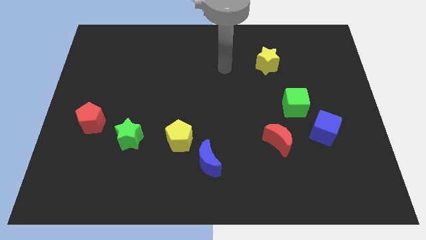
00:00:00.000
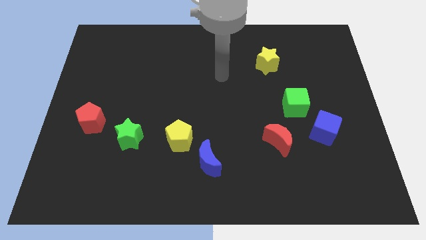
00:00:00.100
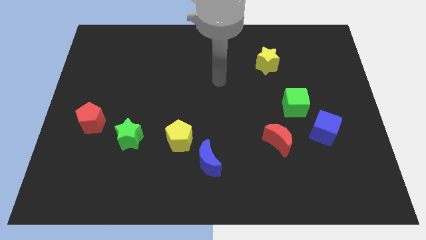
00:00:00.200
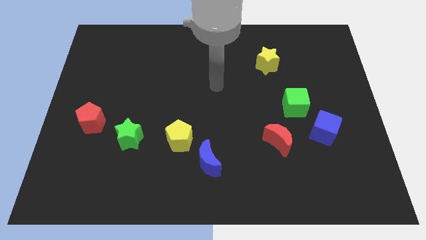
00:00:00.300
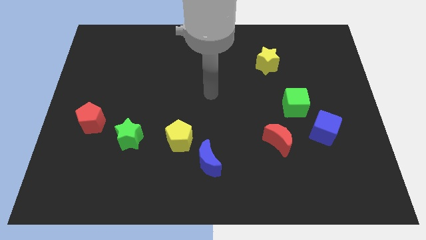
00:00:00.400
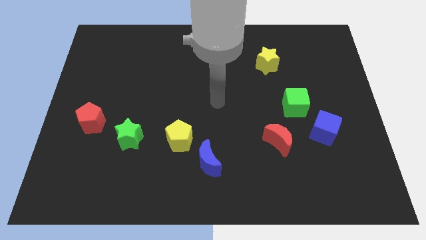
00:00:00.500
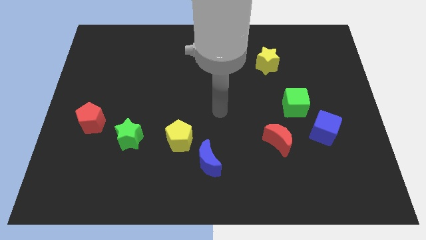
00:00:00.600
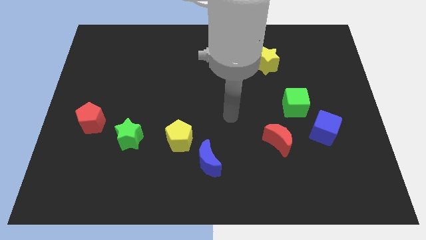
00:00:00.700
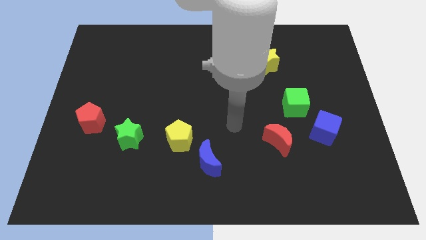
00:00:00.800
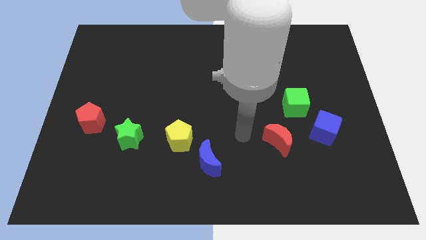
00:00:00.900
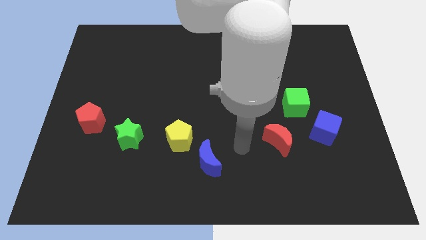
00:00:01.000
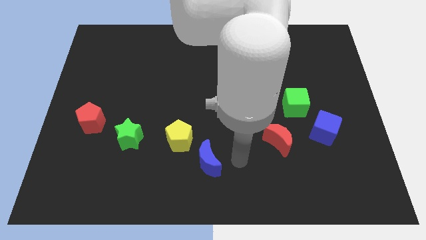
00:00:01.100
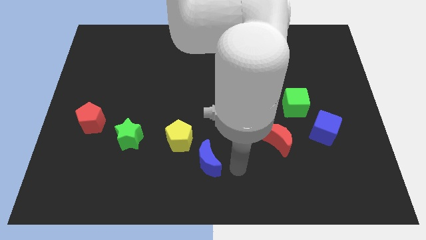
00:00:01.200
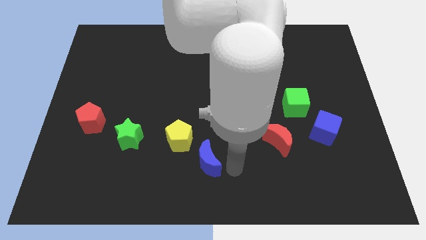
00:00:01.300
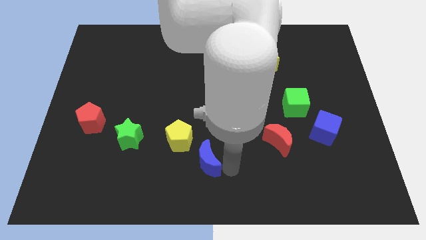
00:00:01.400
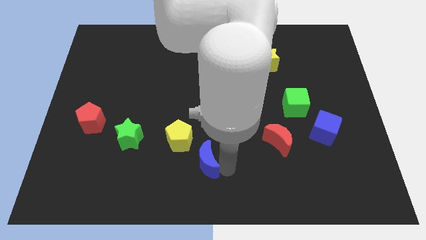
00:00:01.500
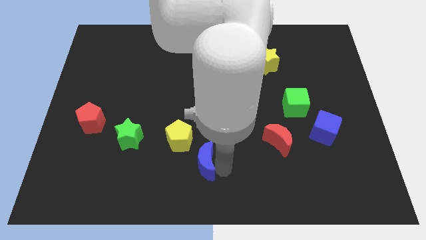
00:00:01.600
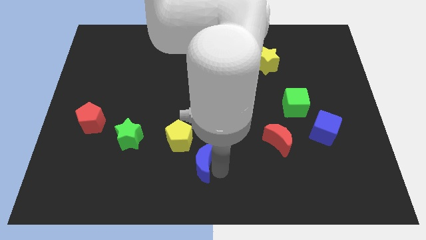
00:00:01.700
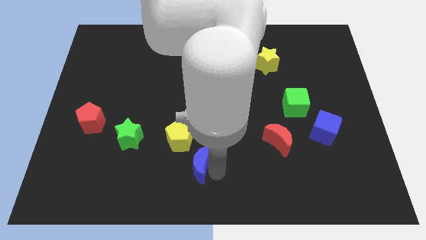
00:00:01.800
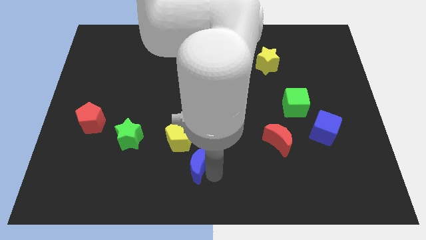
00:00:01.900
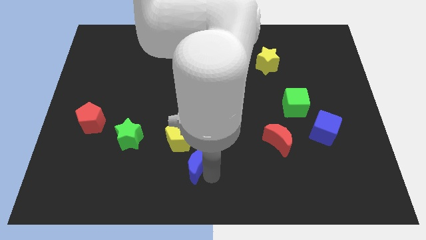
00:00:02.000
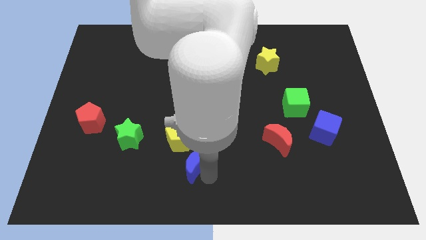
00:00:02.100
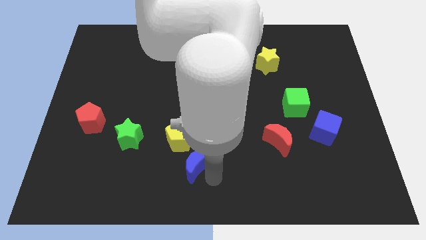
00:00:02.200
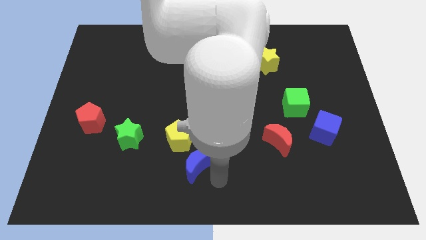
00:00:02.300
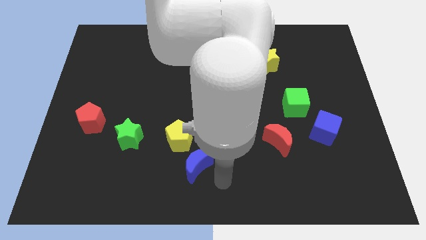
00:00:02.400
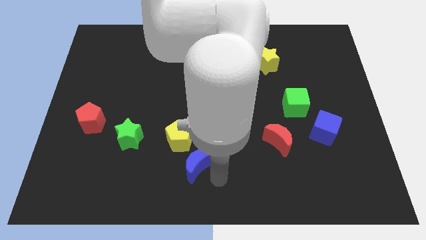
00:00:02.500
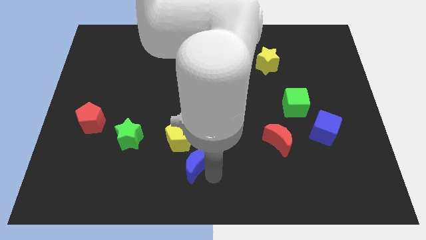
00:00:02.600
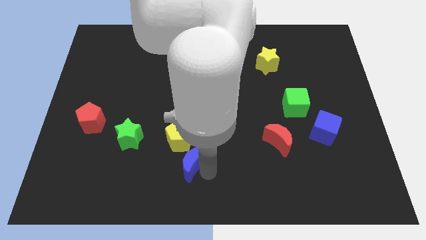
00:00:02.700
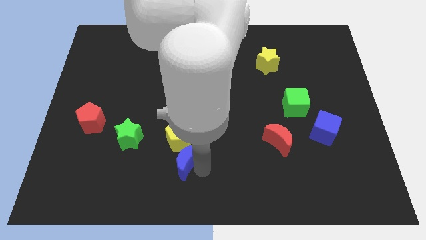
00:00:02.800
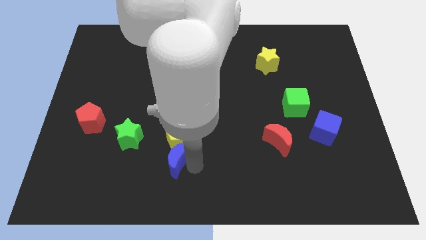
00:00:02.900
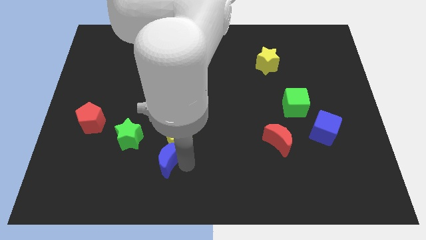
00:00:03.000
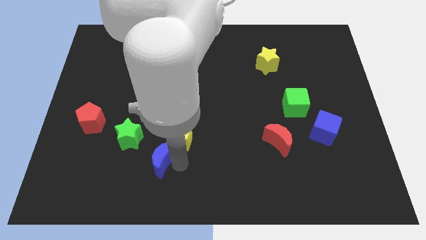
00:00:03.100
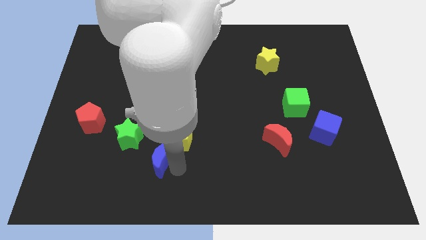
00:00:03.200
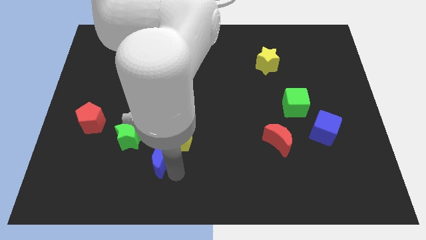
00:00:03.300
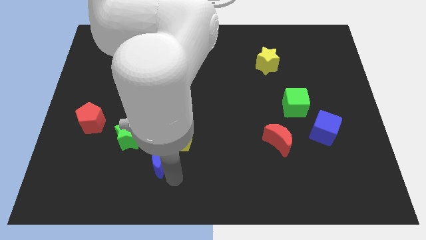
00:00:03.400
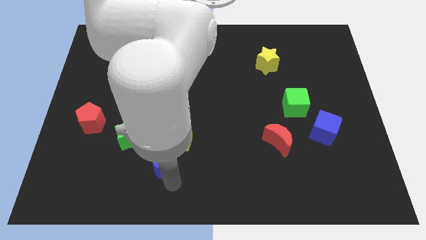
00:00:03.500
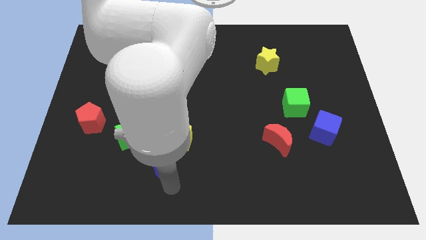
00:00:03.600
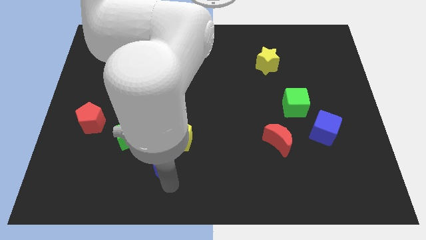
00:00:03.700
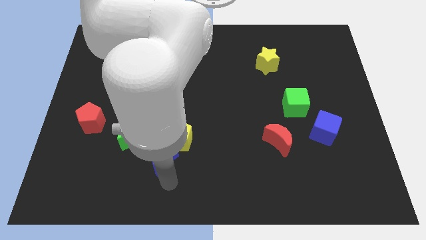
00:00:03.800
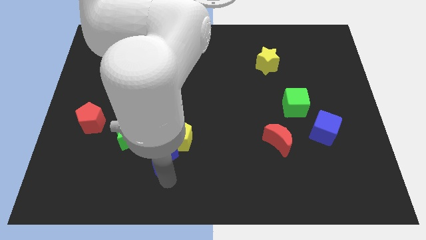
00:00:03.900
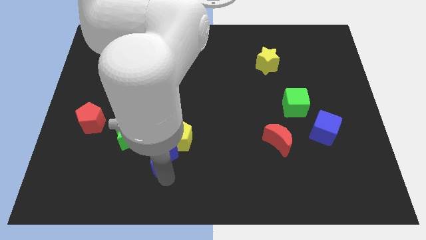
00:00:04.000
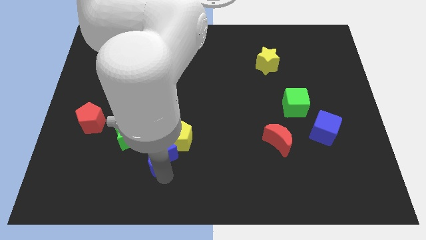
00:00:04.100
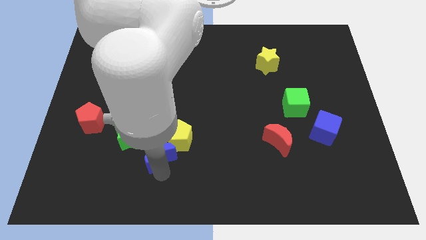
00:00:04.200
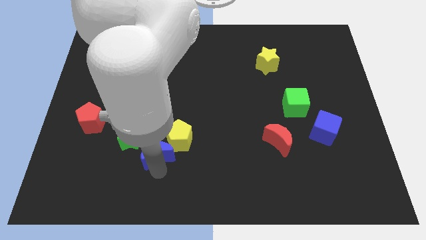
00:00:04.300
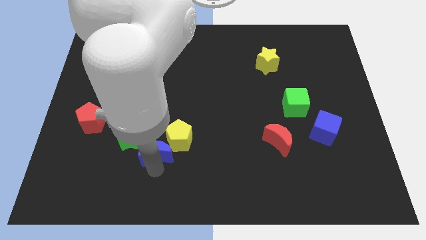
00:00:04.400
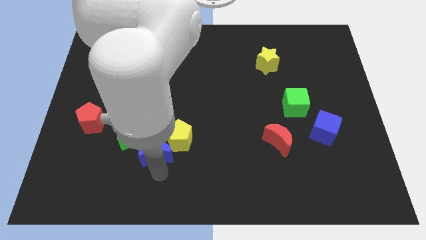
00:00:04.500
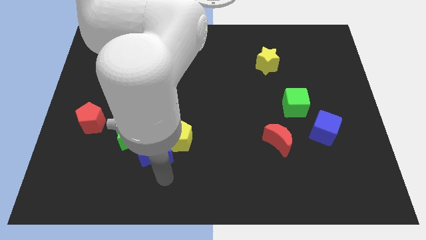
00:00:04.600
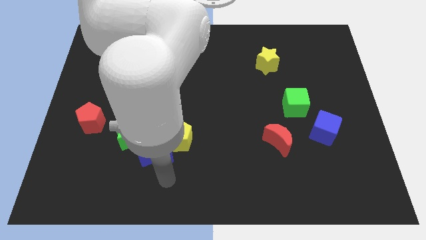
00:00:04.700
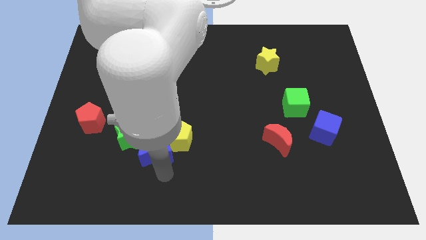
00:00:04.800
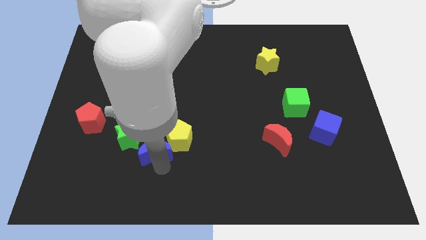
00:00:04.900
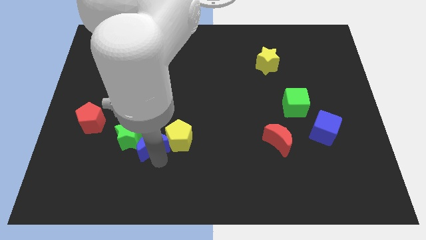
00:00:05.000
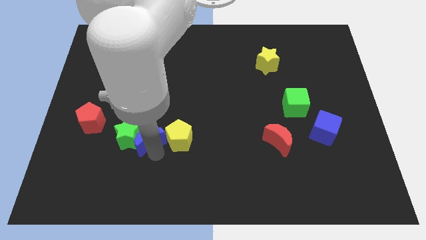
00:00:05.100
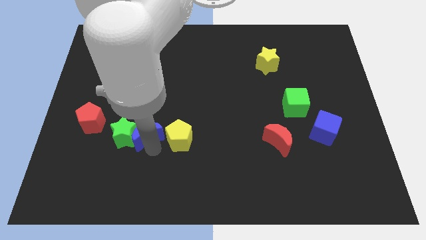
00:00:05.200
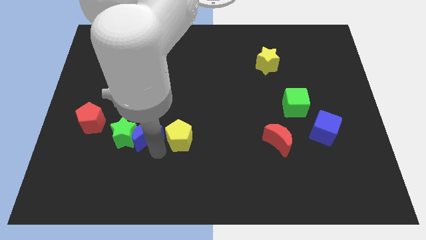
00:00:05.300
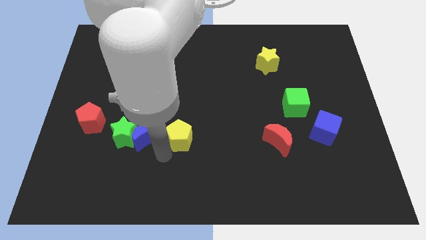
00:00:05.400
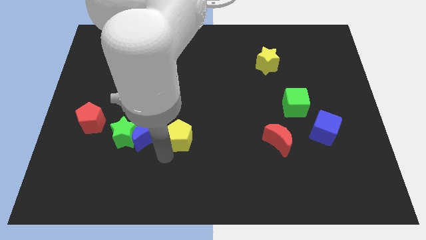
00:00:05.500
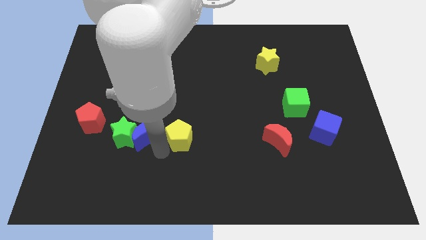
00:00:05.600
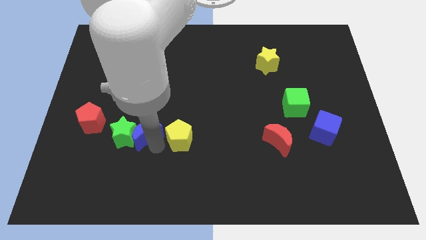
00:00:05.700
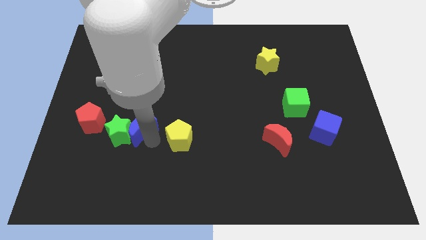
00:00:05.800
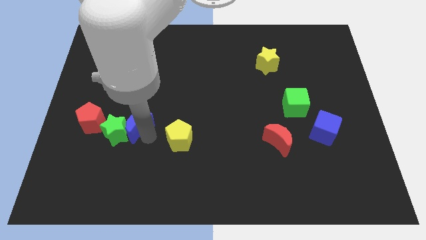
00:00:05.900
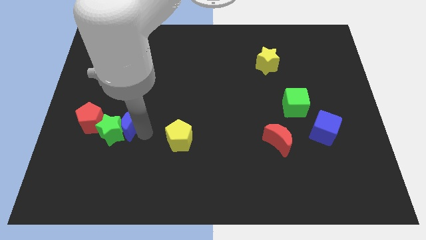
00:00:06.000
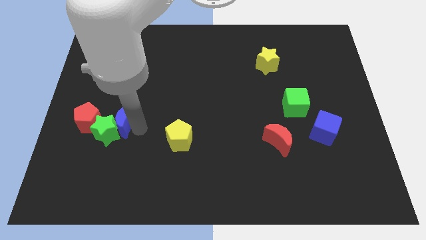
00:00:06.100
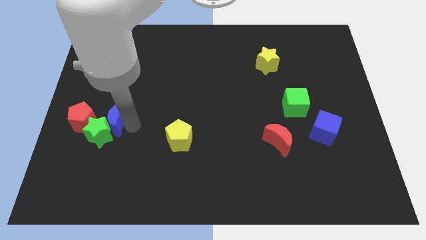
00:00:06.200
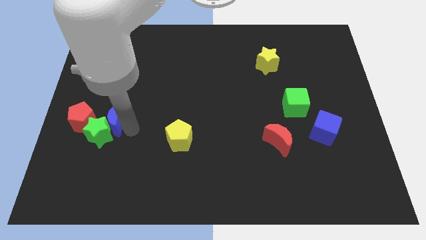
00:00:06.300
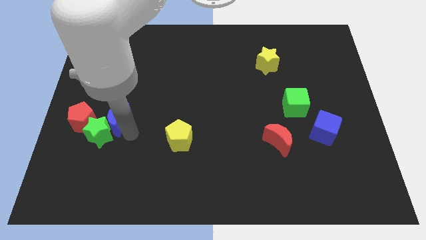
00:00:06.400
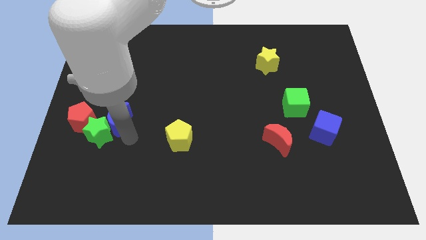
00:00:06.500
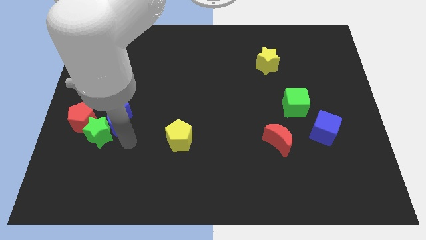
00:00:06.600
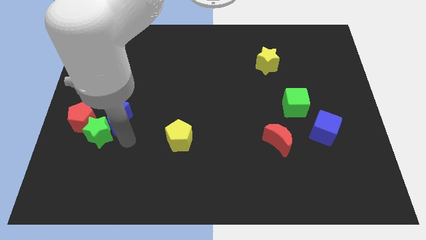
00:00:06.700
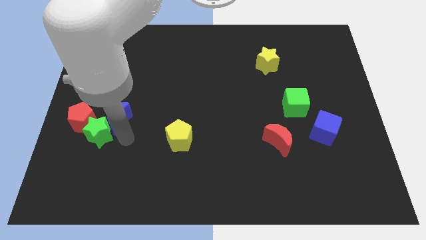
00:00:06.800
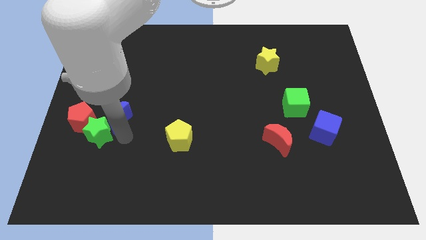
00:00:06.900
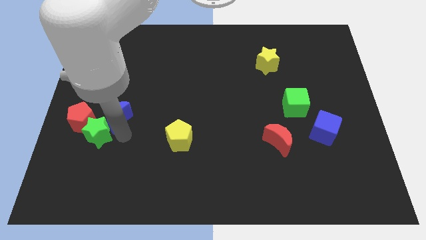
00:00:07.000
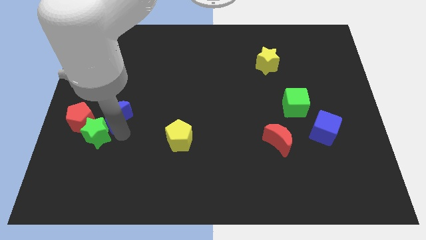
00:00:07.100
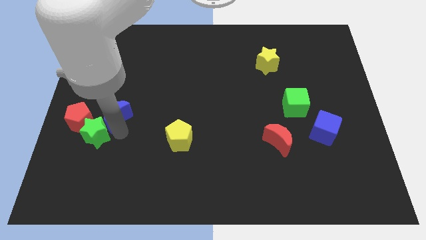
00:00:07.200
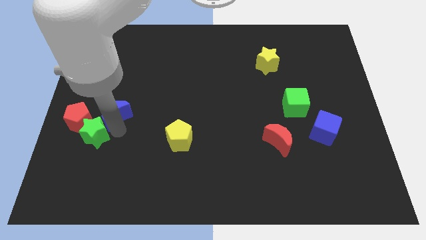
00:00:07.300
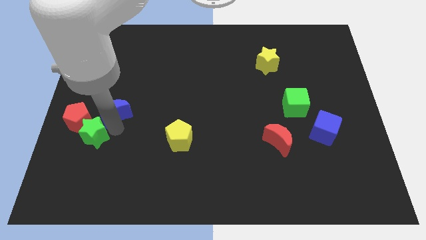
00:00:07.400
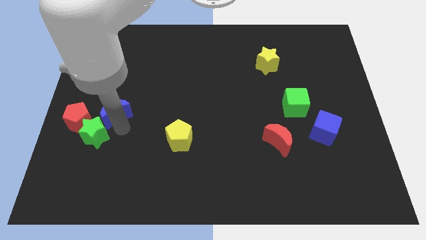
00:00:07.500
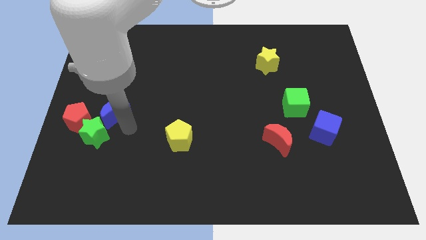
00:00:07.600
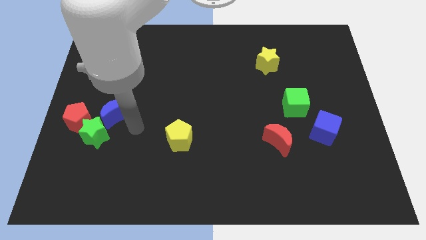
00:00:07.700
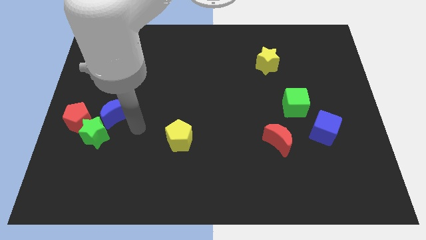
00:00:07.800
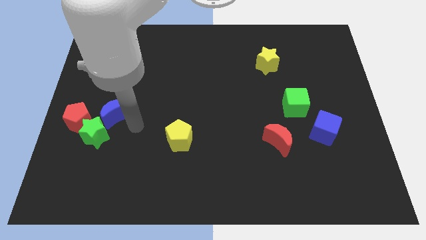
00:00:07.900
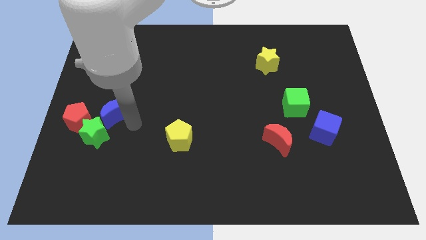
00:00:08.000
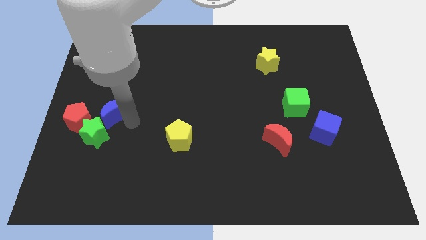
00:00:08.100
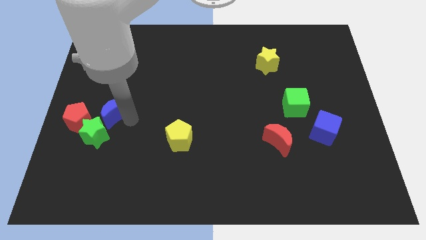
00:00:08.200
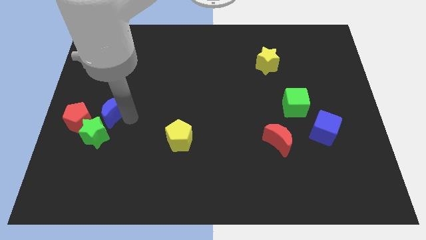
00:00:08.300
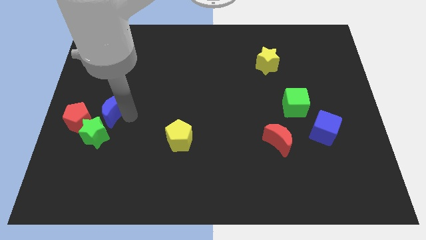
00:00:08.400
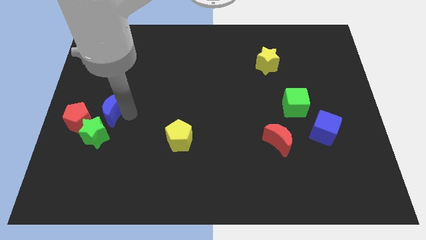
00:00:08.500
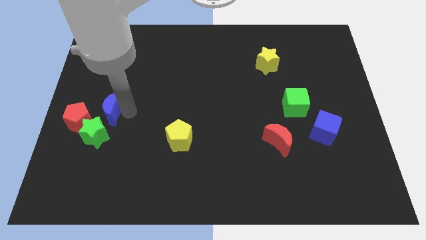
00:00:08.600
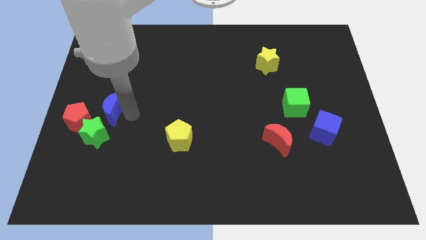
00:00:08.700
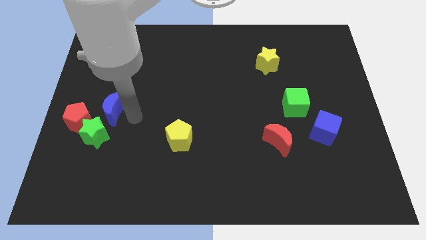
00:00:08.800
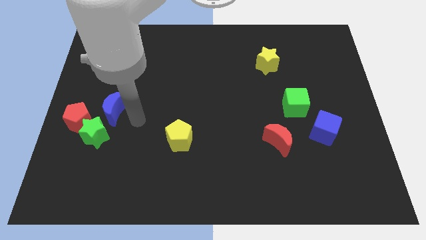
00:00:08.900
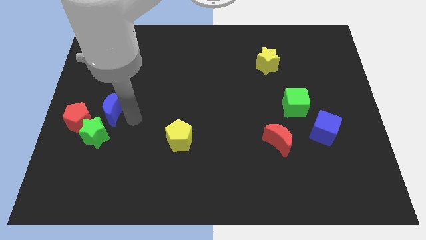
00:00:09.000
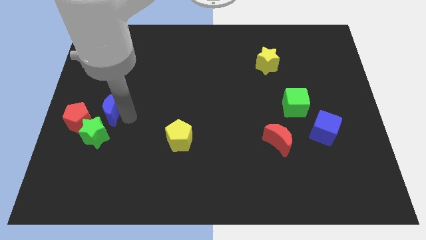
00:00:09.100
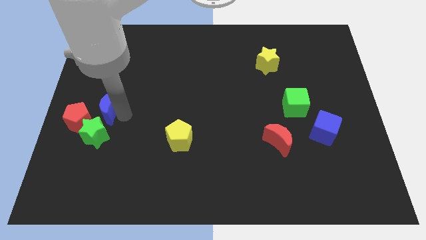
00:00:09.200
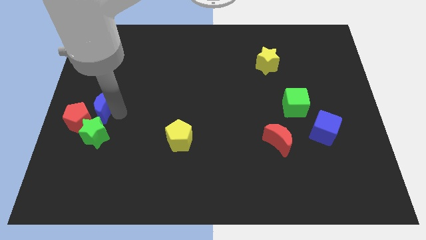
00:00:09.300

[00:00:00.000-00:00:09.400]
put the blue moon to the left side of the board
